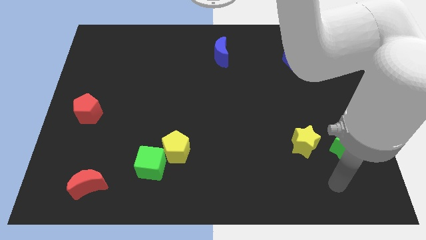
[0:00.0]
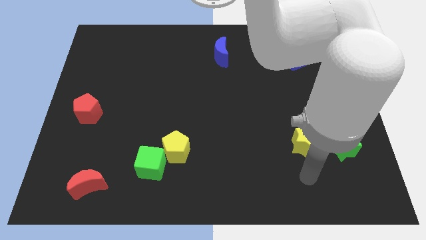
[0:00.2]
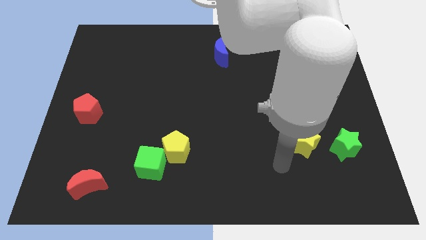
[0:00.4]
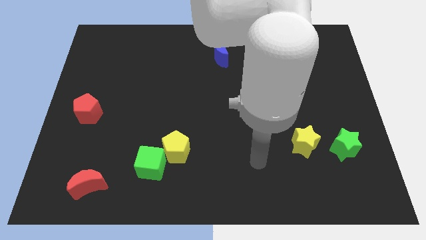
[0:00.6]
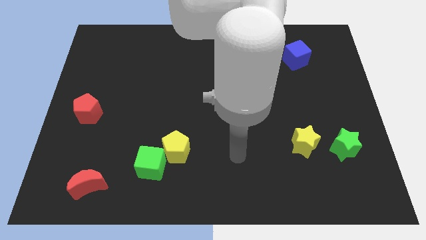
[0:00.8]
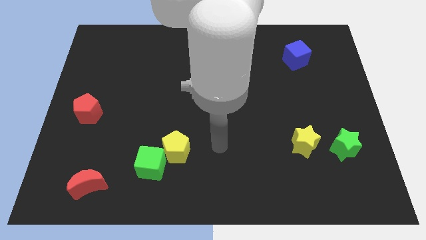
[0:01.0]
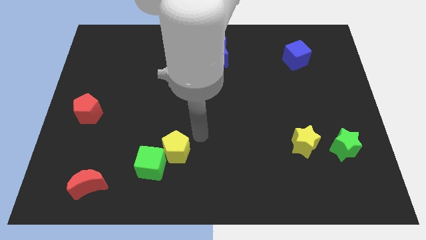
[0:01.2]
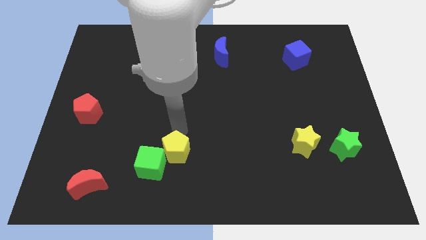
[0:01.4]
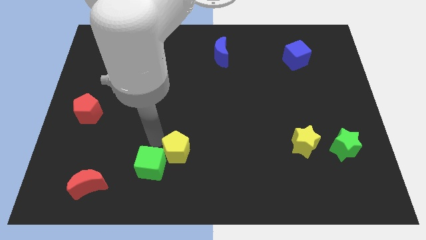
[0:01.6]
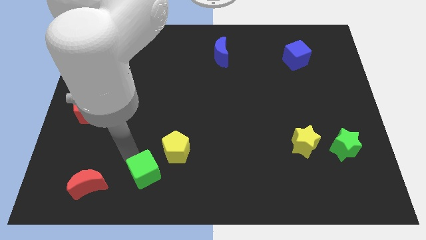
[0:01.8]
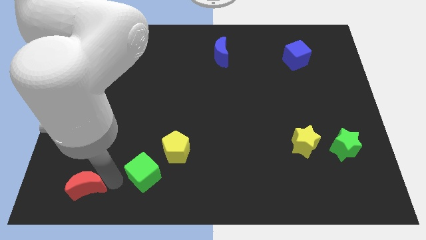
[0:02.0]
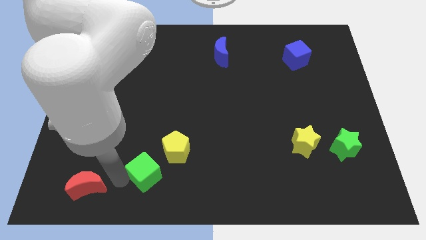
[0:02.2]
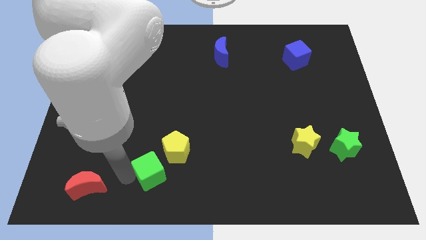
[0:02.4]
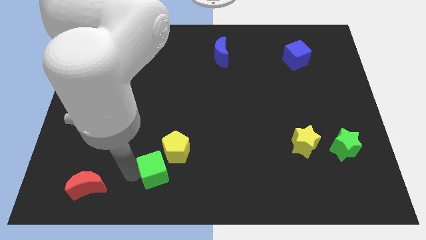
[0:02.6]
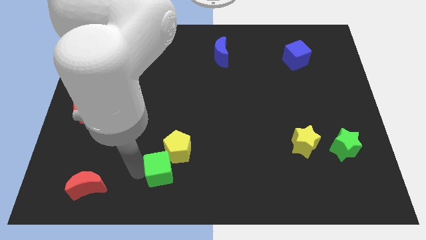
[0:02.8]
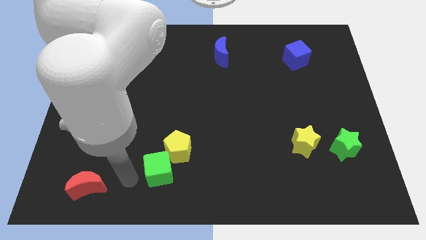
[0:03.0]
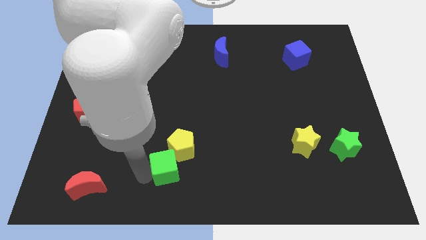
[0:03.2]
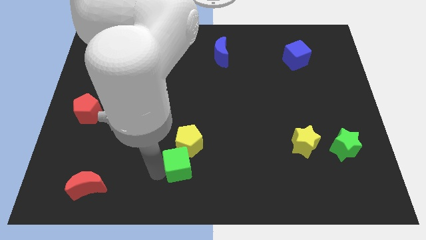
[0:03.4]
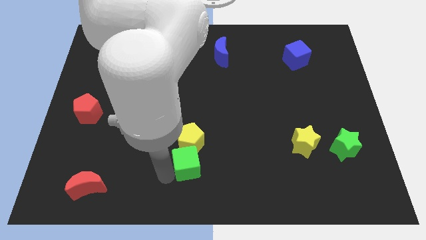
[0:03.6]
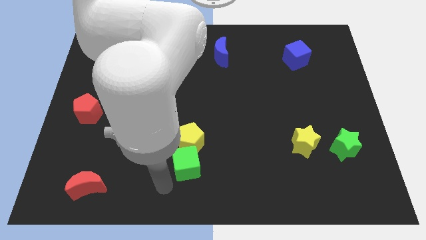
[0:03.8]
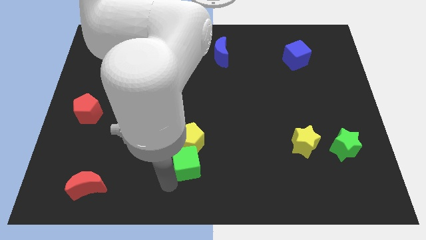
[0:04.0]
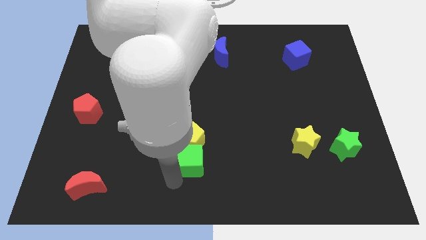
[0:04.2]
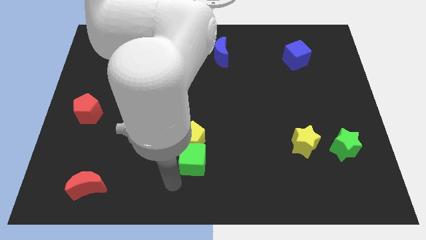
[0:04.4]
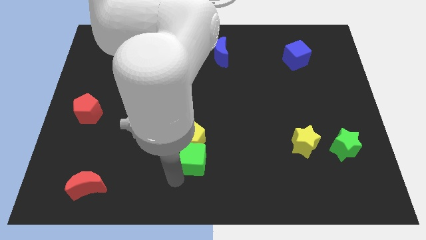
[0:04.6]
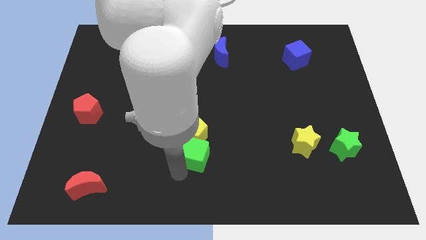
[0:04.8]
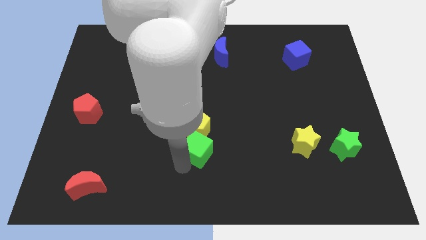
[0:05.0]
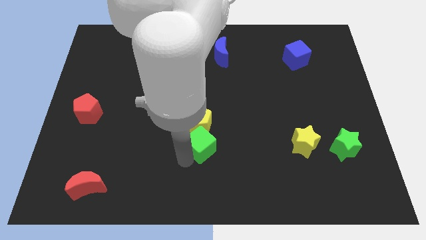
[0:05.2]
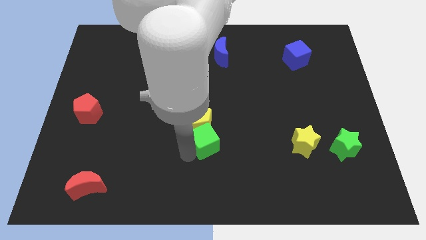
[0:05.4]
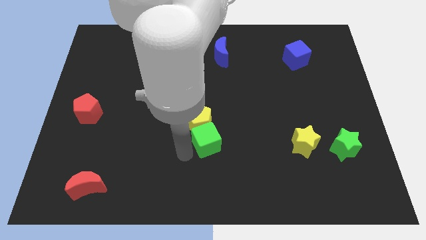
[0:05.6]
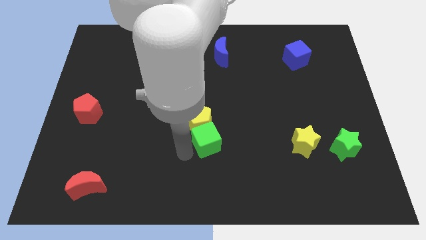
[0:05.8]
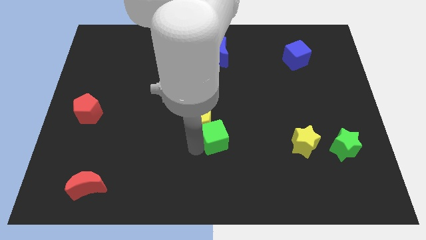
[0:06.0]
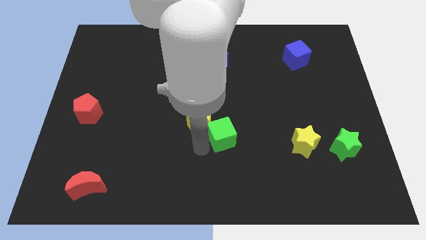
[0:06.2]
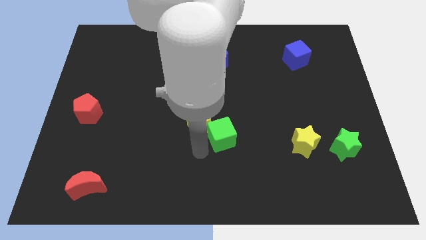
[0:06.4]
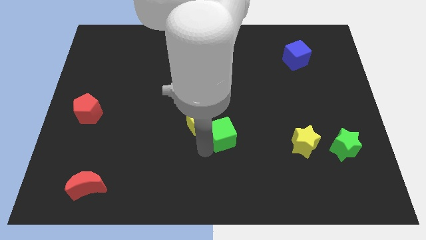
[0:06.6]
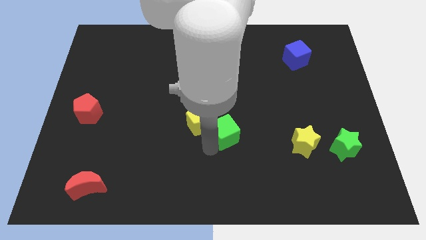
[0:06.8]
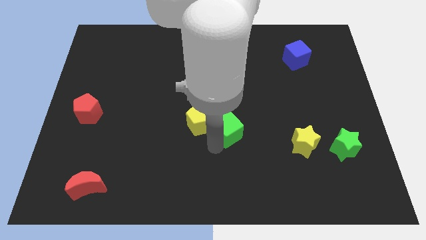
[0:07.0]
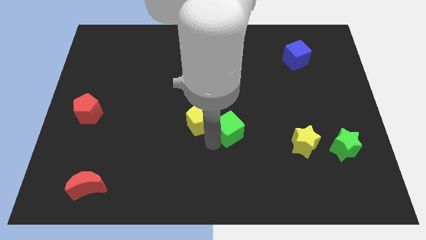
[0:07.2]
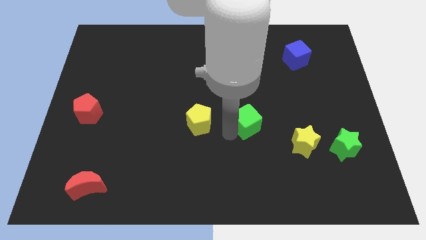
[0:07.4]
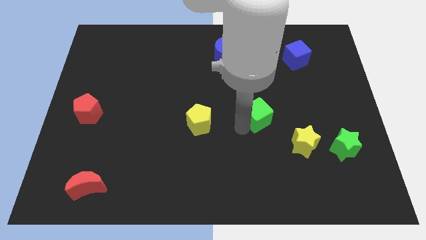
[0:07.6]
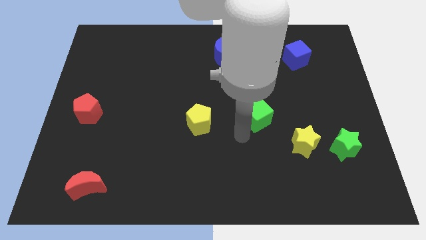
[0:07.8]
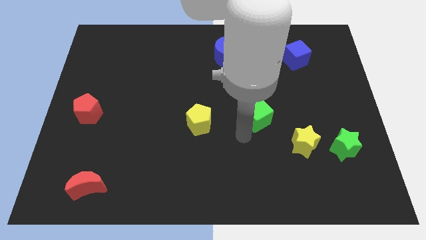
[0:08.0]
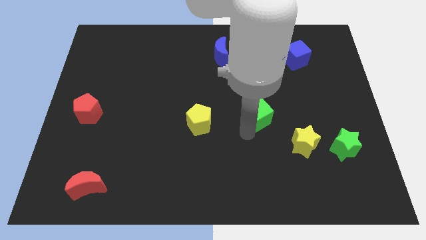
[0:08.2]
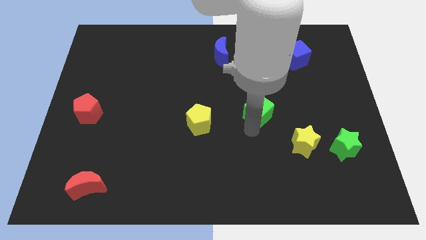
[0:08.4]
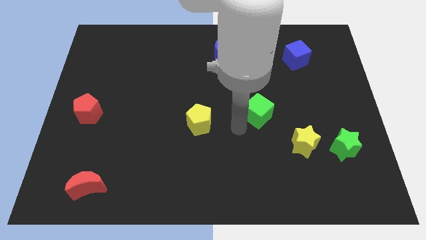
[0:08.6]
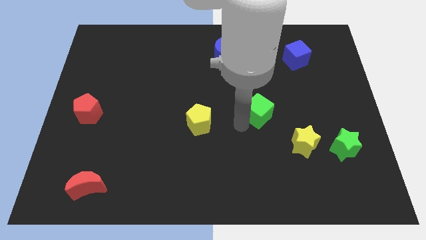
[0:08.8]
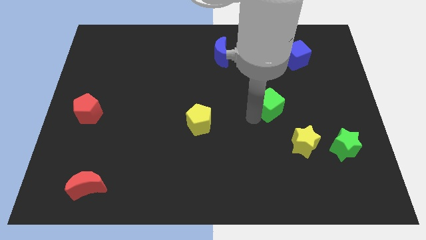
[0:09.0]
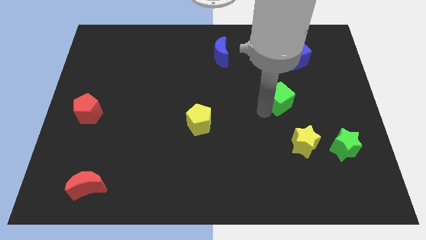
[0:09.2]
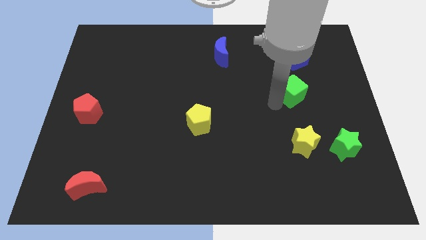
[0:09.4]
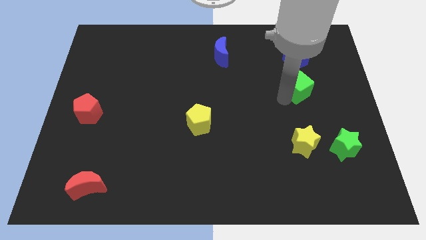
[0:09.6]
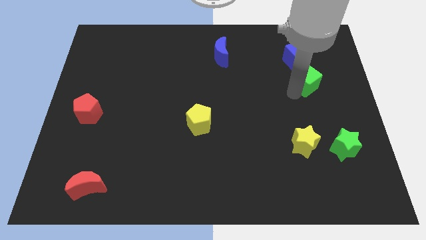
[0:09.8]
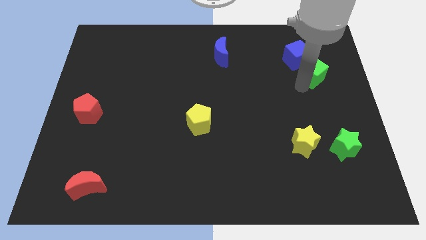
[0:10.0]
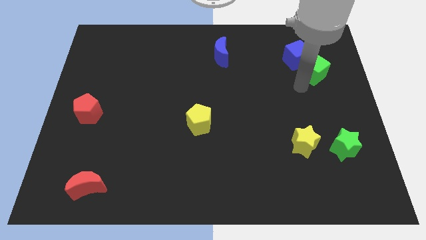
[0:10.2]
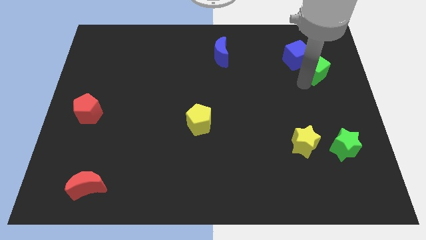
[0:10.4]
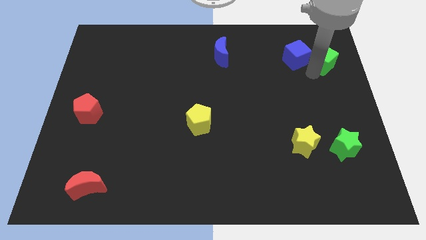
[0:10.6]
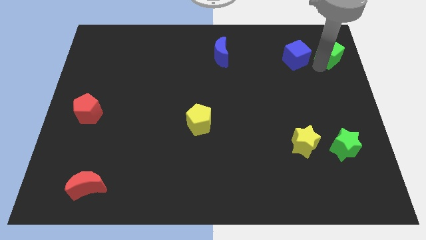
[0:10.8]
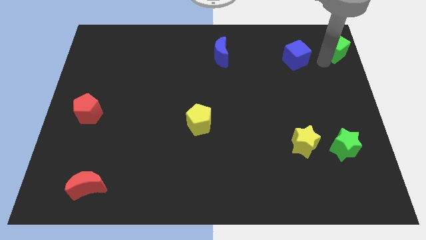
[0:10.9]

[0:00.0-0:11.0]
push the green cube to the top right corner

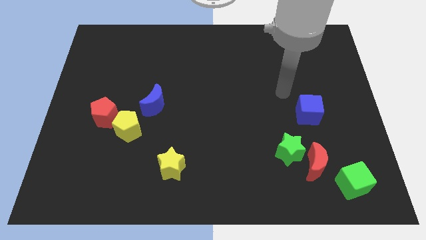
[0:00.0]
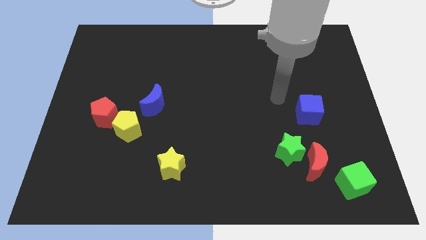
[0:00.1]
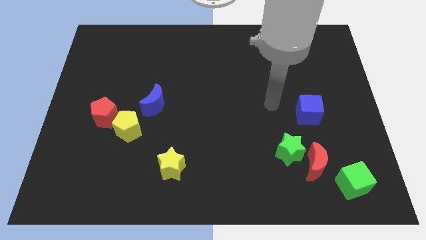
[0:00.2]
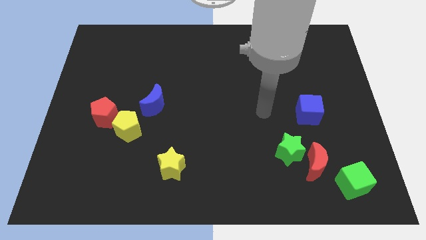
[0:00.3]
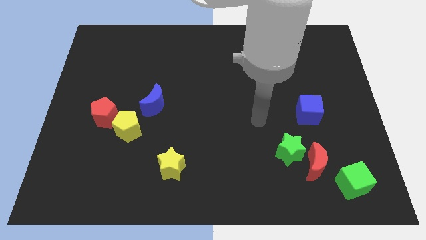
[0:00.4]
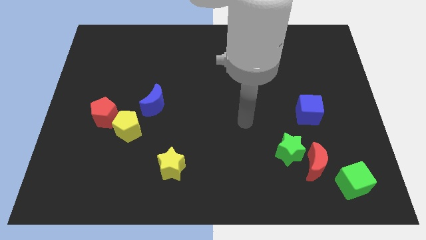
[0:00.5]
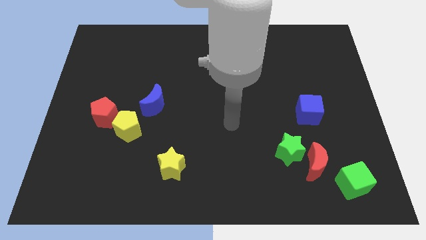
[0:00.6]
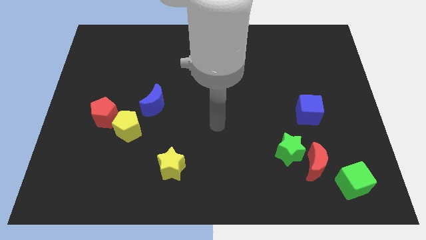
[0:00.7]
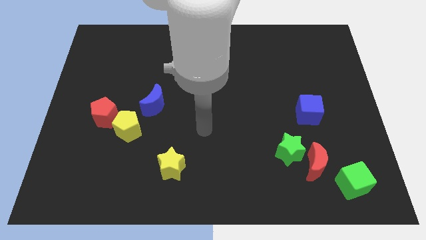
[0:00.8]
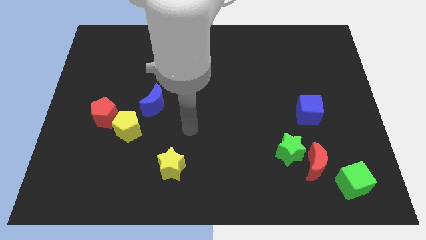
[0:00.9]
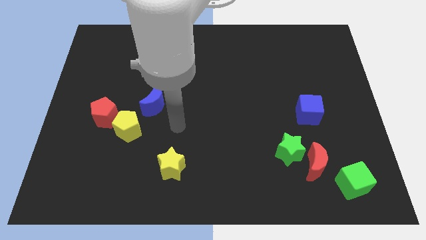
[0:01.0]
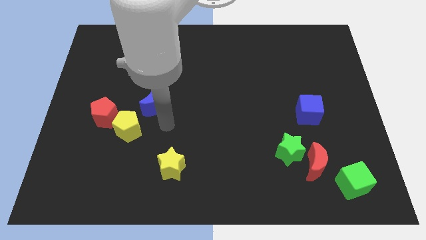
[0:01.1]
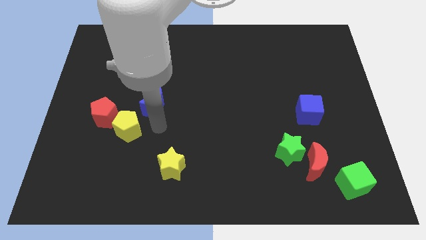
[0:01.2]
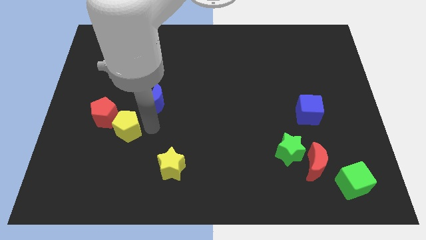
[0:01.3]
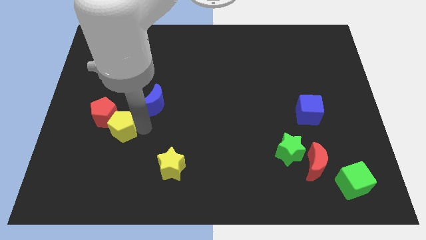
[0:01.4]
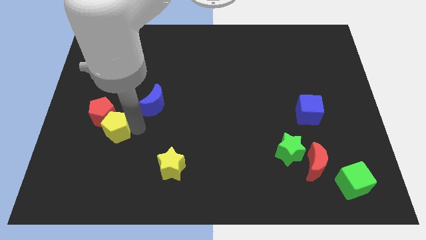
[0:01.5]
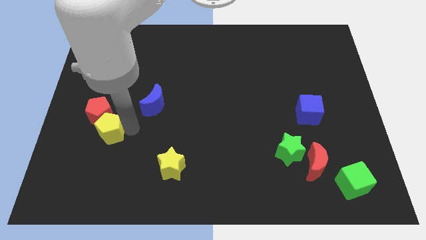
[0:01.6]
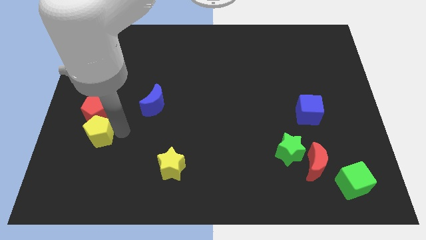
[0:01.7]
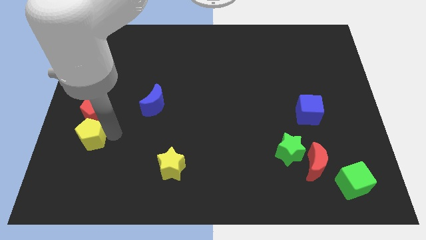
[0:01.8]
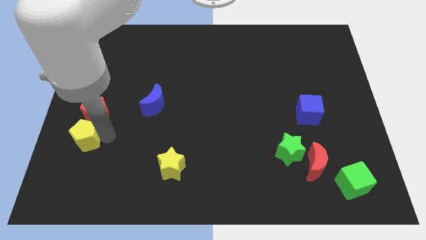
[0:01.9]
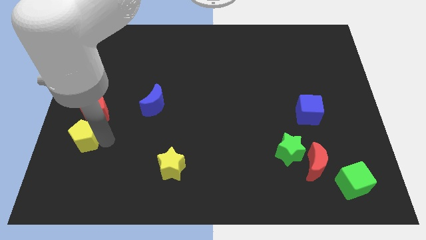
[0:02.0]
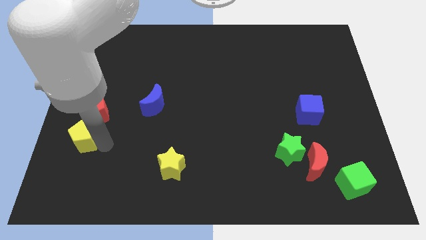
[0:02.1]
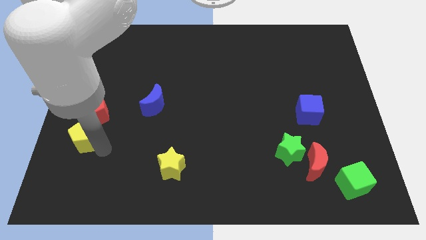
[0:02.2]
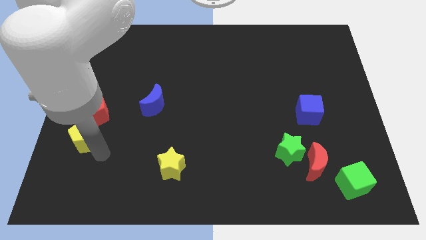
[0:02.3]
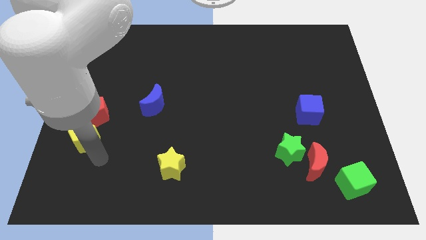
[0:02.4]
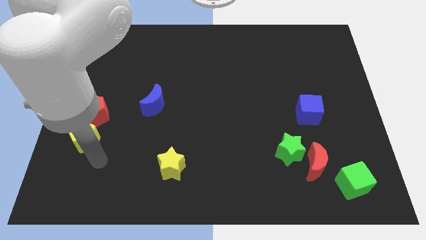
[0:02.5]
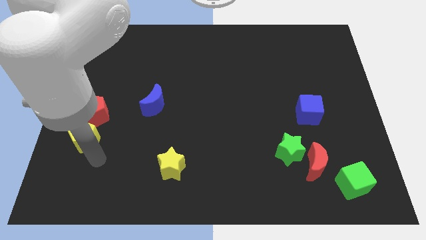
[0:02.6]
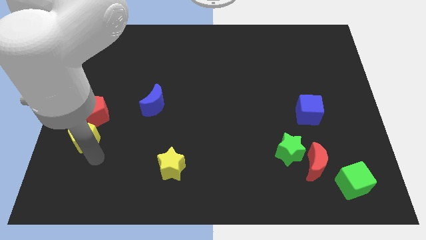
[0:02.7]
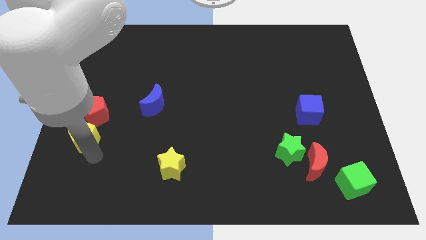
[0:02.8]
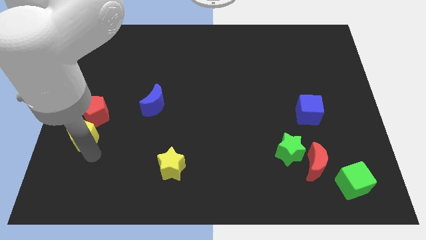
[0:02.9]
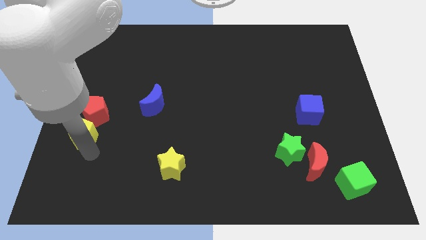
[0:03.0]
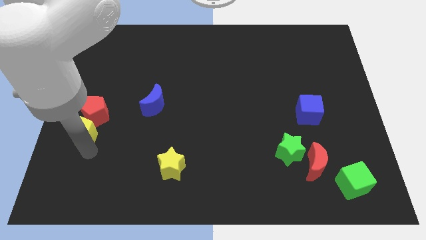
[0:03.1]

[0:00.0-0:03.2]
put the yellow pentagon to the left side of the board
